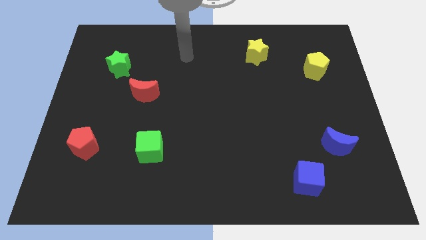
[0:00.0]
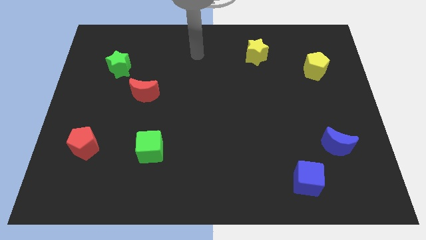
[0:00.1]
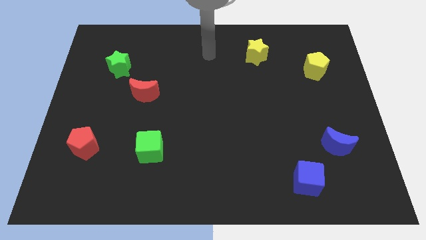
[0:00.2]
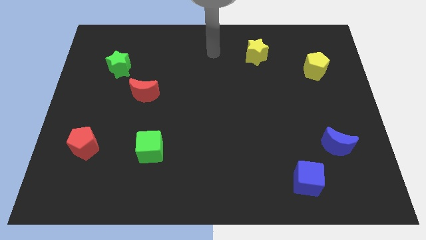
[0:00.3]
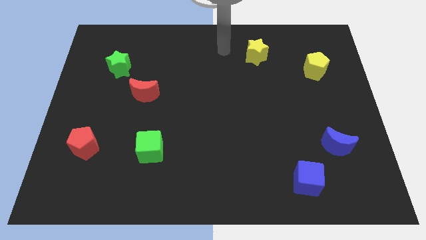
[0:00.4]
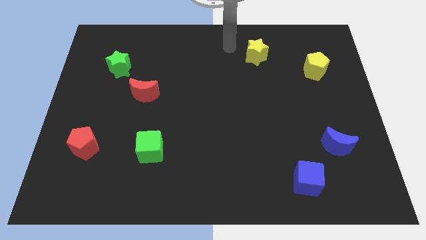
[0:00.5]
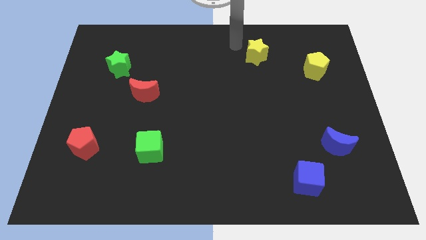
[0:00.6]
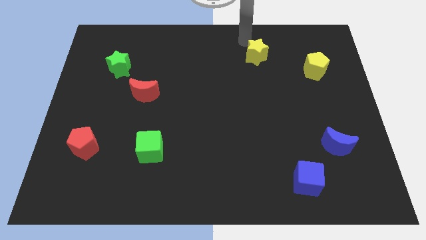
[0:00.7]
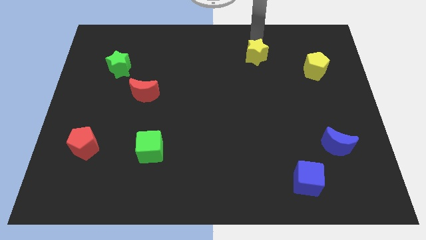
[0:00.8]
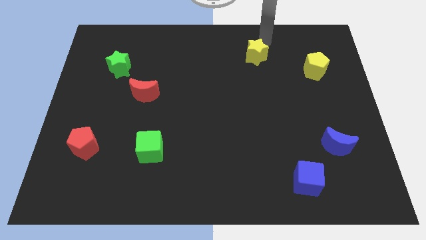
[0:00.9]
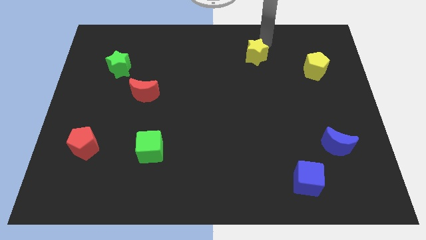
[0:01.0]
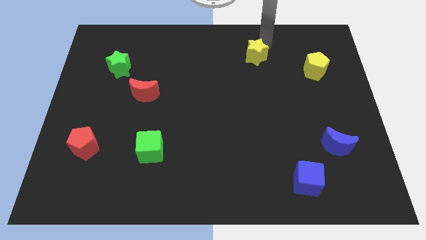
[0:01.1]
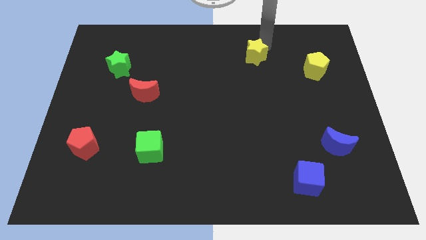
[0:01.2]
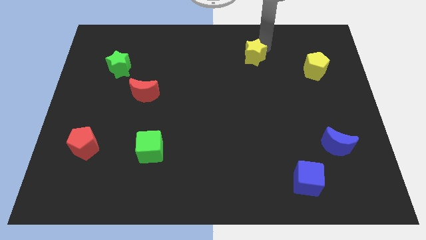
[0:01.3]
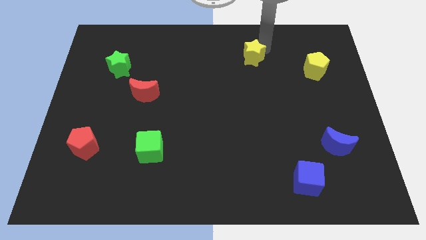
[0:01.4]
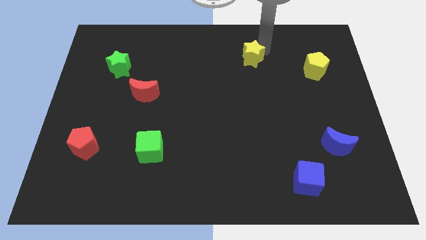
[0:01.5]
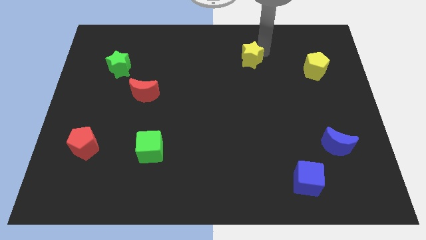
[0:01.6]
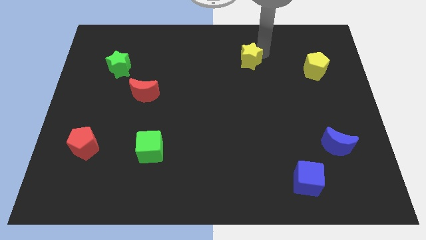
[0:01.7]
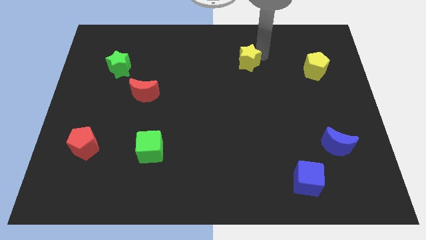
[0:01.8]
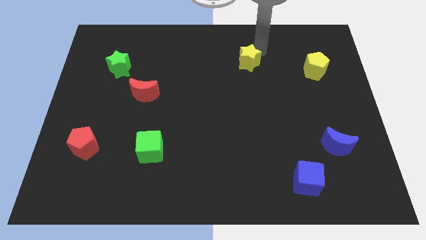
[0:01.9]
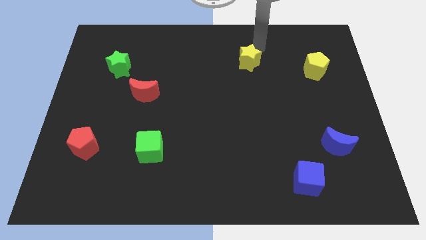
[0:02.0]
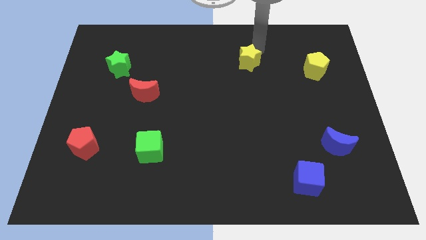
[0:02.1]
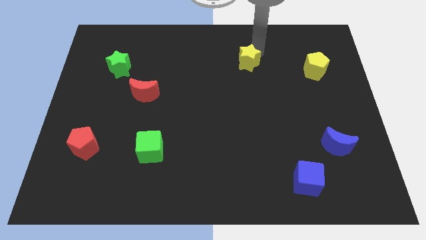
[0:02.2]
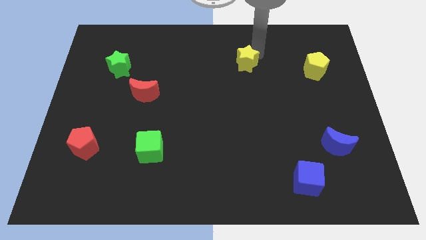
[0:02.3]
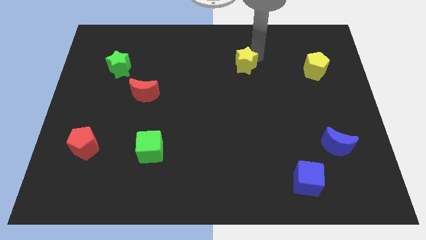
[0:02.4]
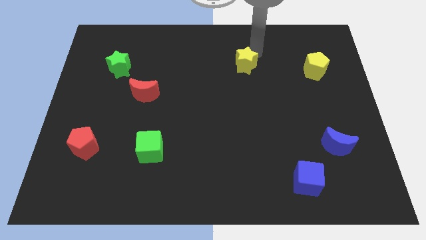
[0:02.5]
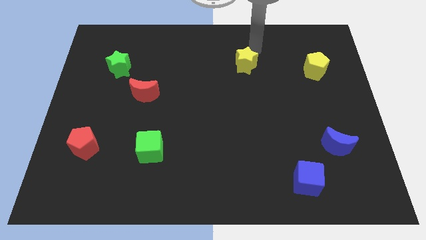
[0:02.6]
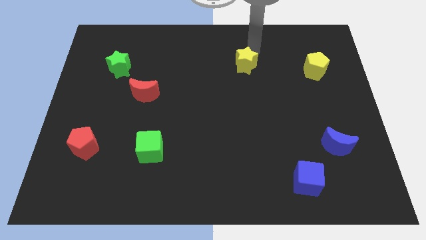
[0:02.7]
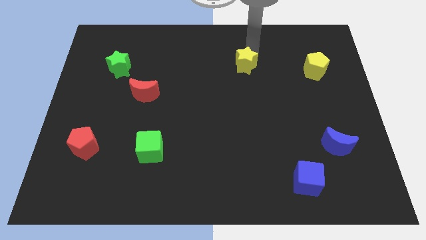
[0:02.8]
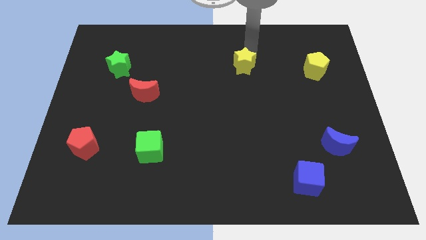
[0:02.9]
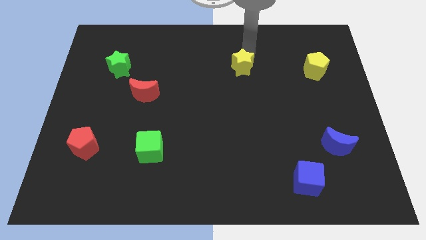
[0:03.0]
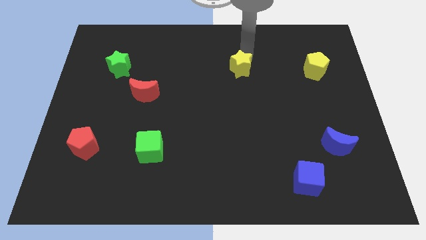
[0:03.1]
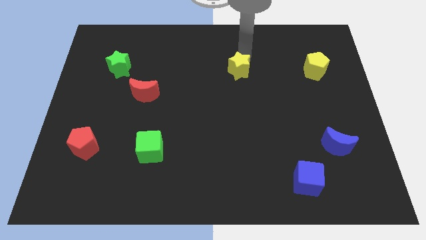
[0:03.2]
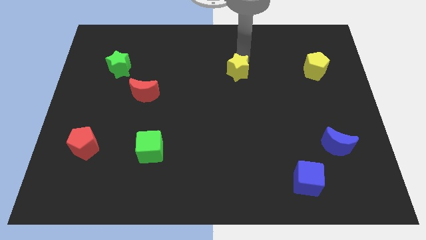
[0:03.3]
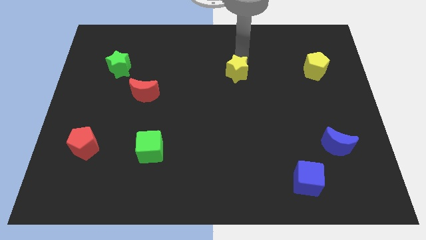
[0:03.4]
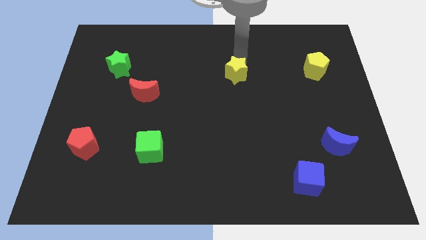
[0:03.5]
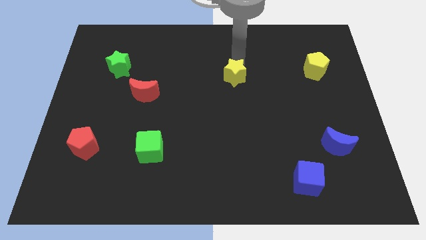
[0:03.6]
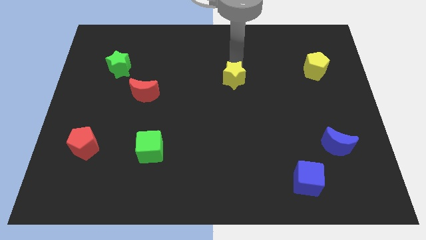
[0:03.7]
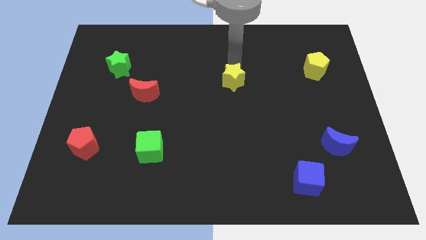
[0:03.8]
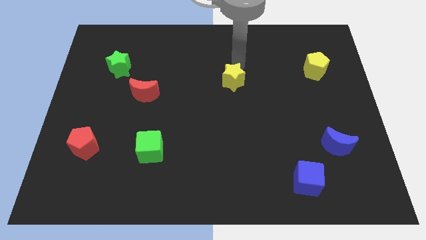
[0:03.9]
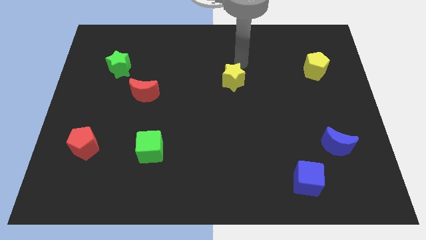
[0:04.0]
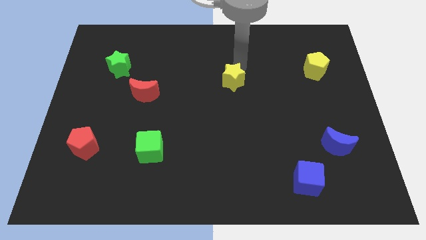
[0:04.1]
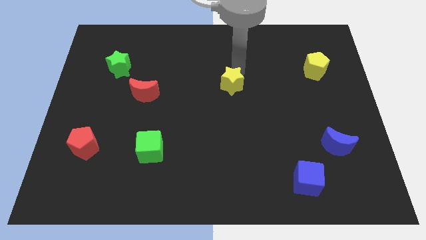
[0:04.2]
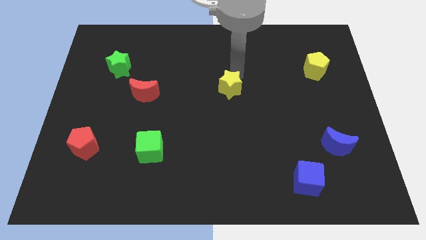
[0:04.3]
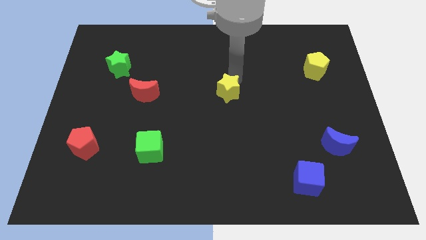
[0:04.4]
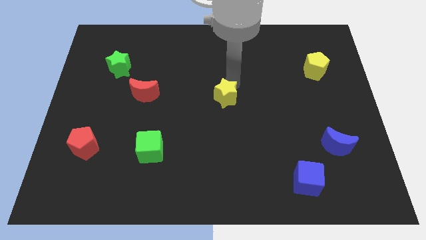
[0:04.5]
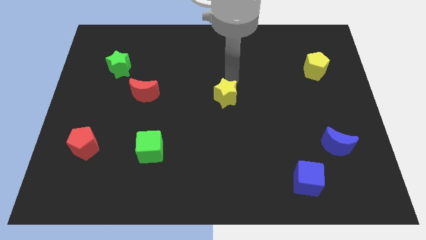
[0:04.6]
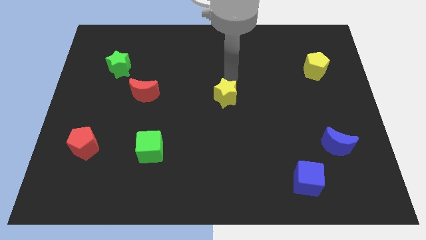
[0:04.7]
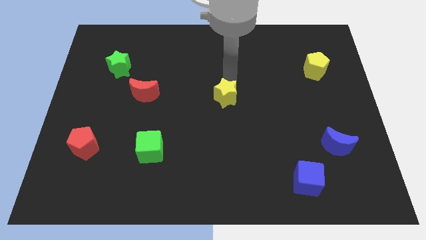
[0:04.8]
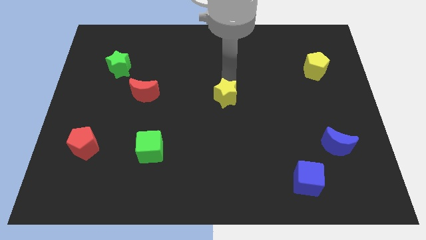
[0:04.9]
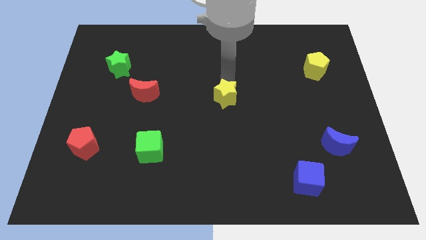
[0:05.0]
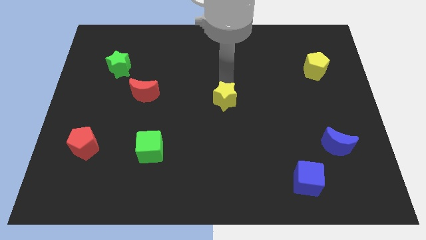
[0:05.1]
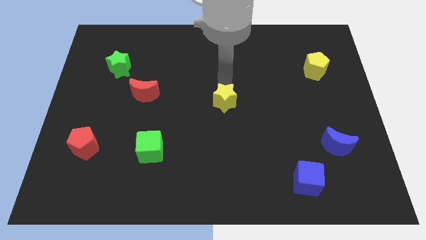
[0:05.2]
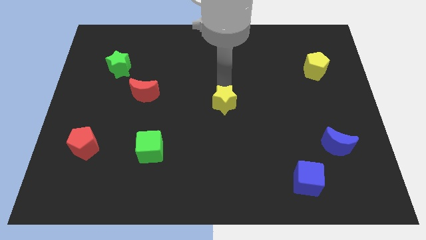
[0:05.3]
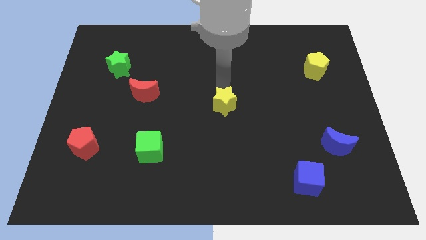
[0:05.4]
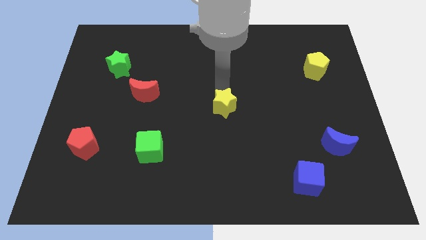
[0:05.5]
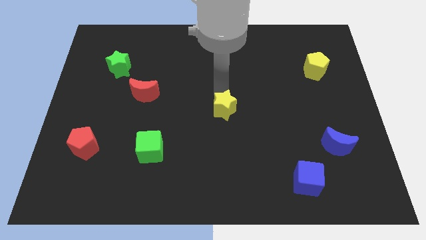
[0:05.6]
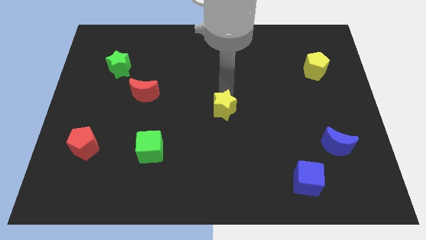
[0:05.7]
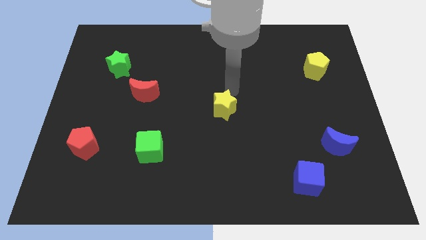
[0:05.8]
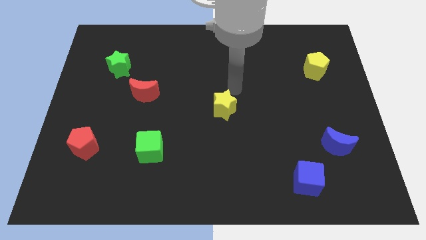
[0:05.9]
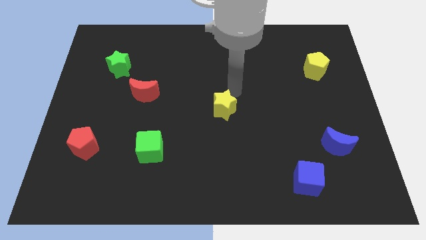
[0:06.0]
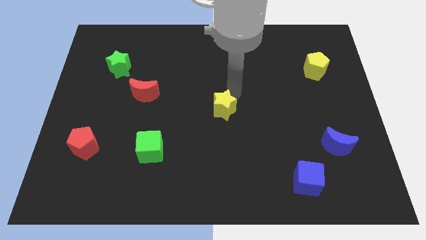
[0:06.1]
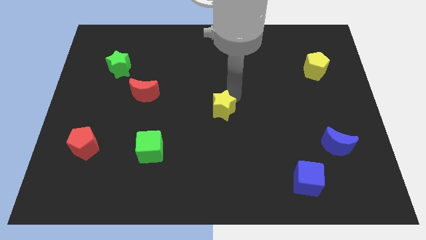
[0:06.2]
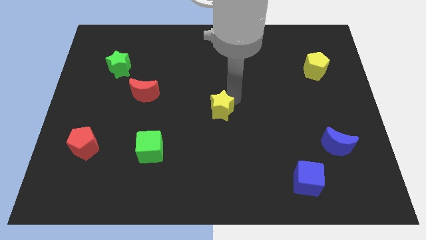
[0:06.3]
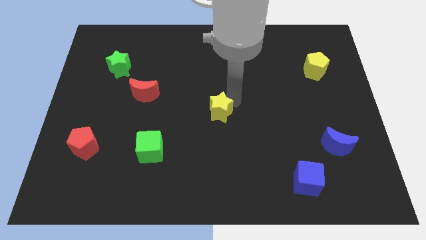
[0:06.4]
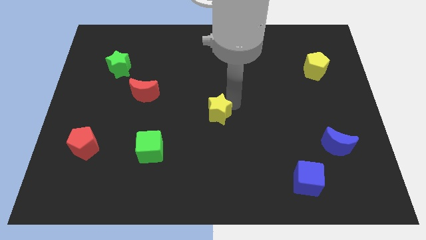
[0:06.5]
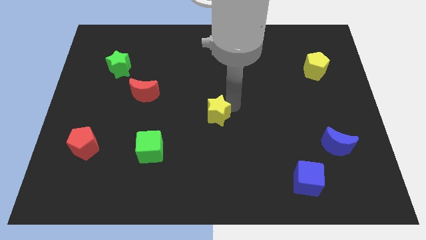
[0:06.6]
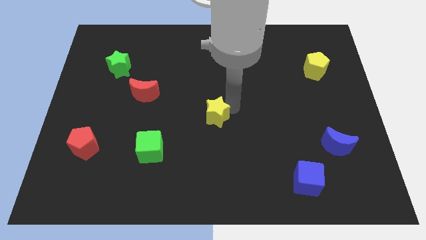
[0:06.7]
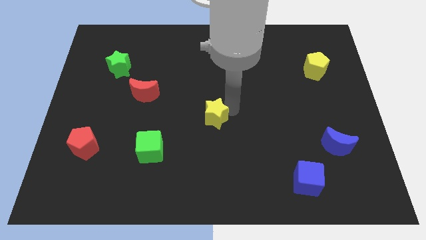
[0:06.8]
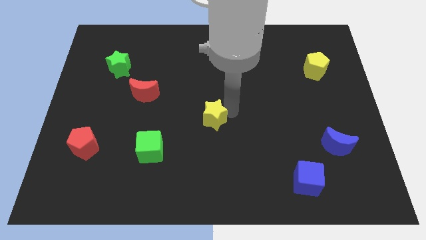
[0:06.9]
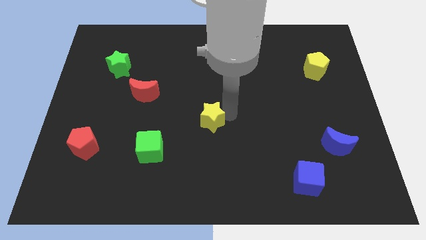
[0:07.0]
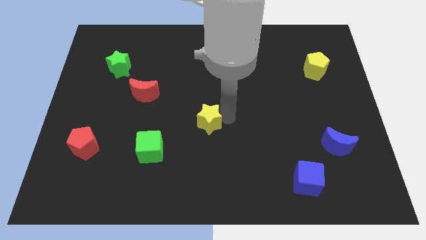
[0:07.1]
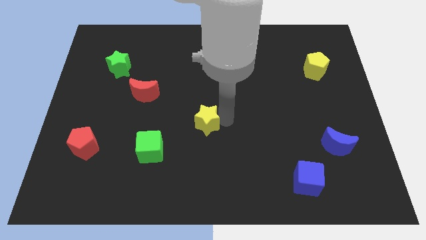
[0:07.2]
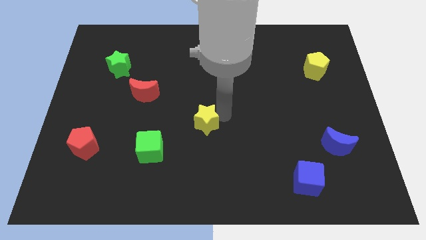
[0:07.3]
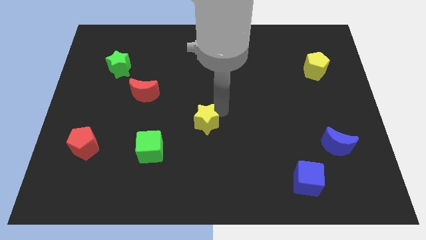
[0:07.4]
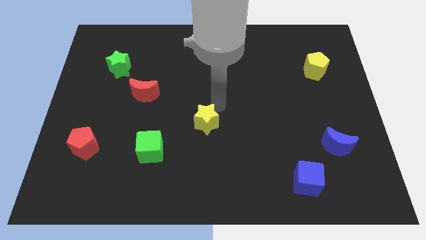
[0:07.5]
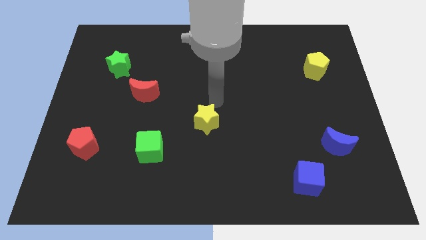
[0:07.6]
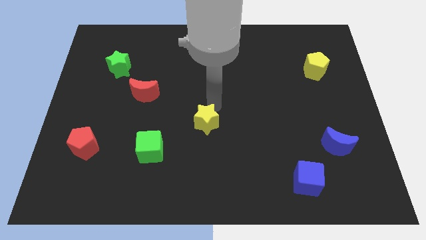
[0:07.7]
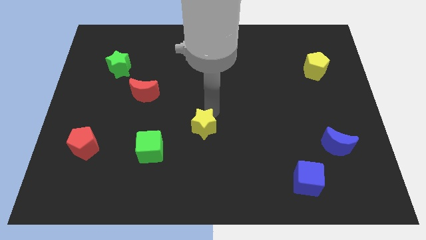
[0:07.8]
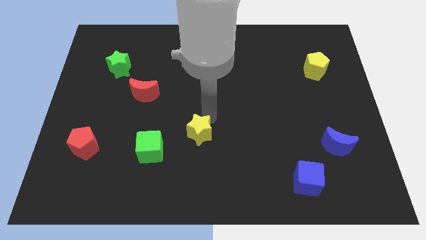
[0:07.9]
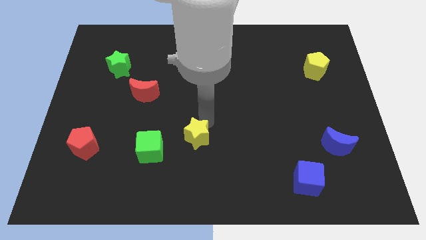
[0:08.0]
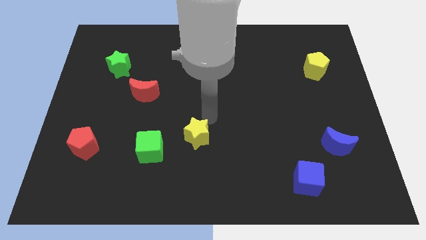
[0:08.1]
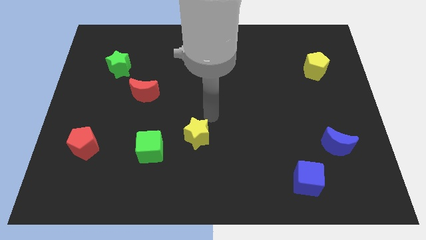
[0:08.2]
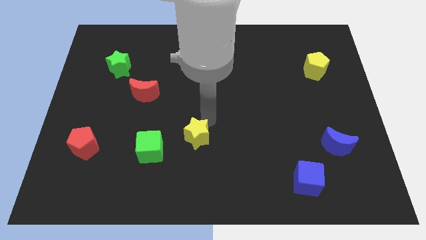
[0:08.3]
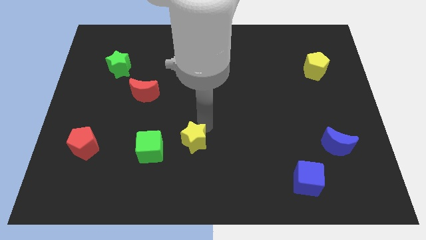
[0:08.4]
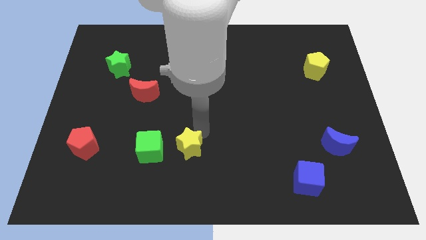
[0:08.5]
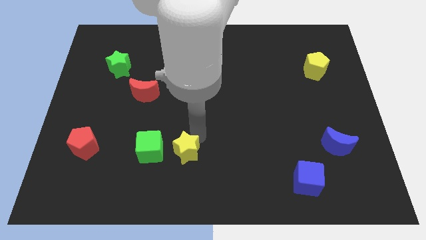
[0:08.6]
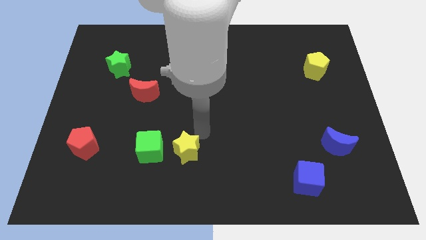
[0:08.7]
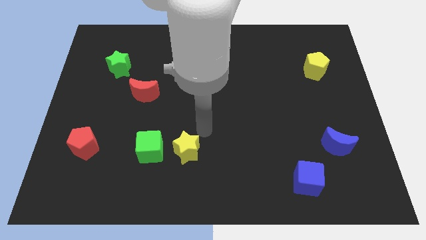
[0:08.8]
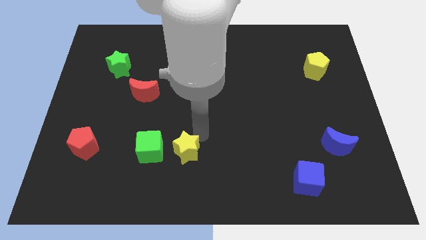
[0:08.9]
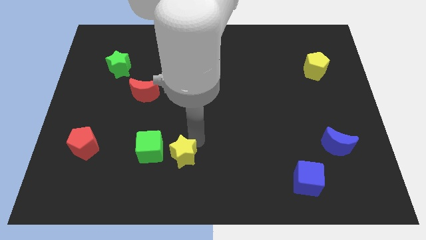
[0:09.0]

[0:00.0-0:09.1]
move the yellow star to the bottom right side of the green cube
